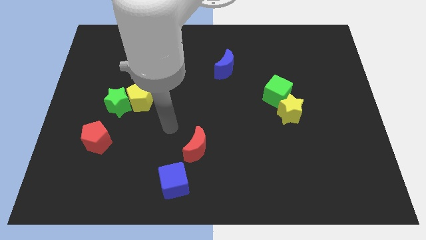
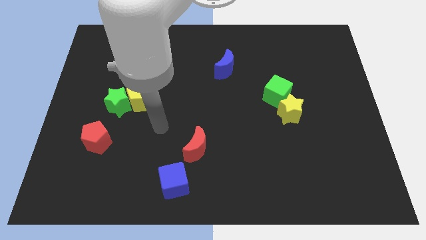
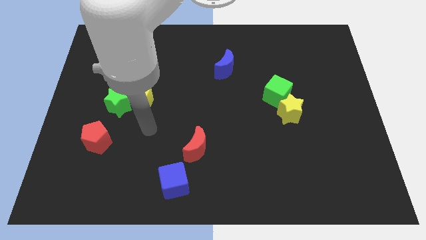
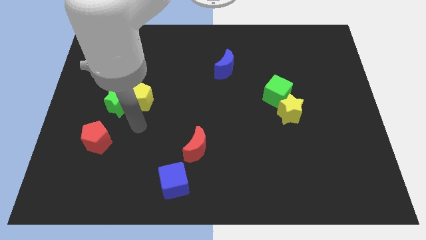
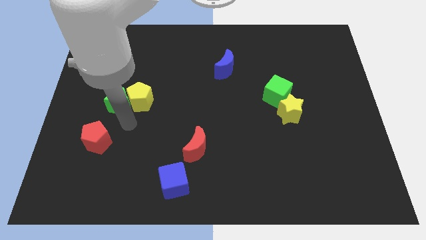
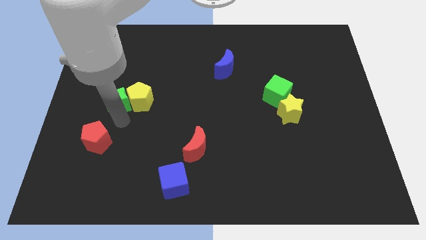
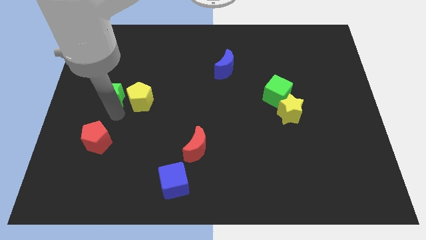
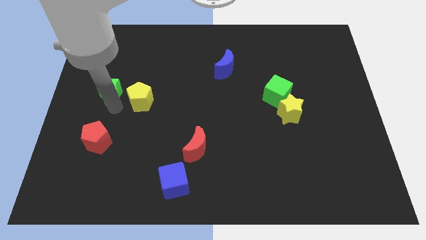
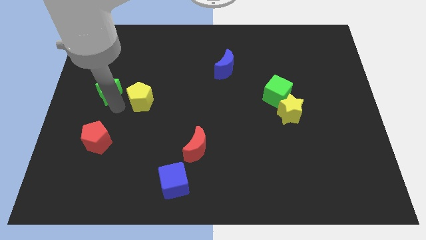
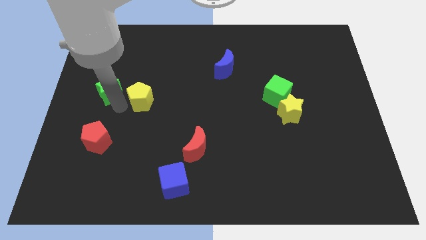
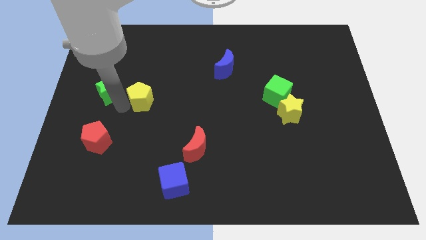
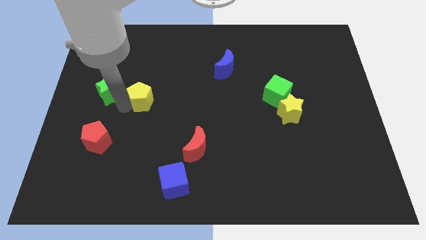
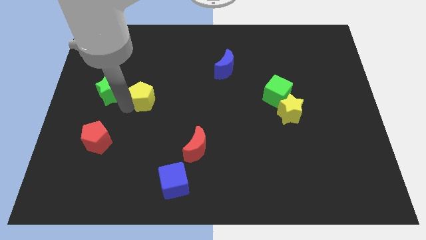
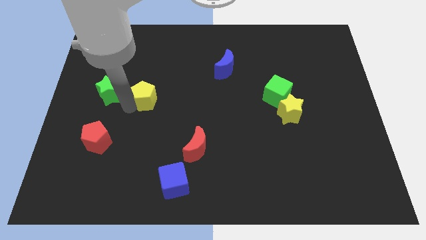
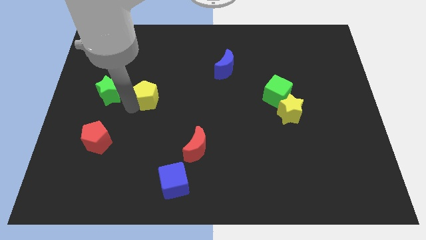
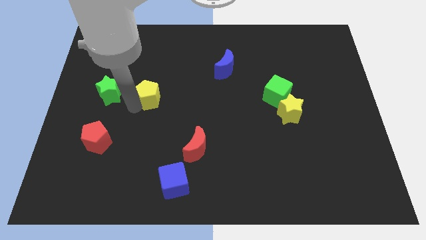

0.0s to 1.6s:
pull the yellow pentagon apart from the green star

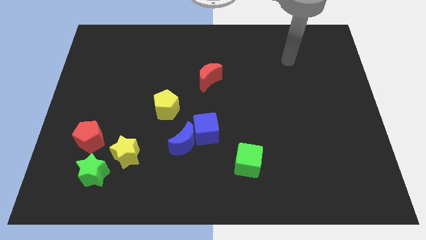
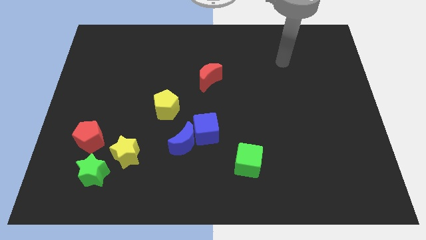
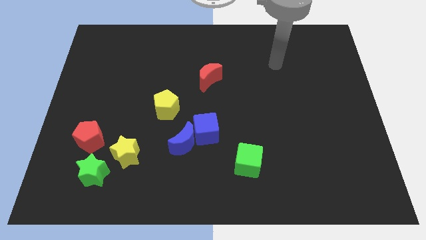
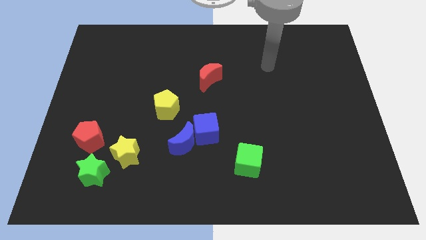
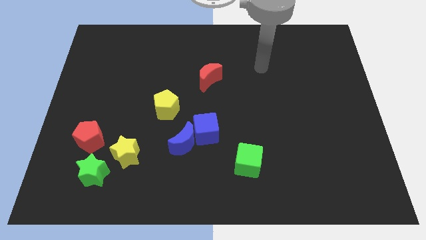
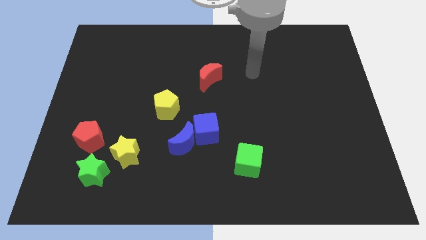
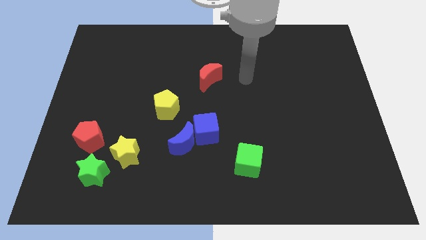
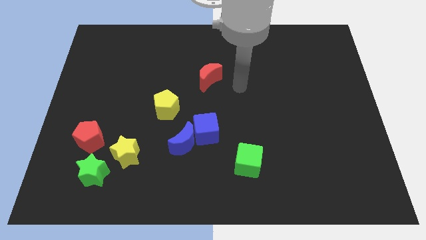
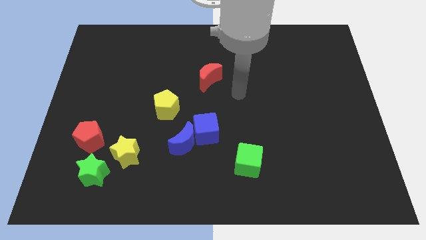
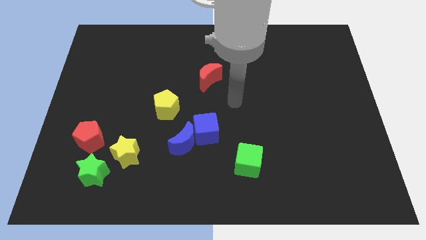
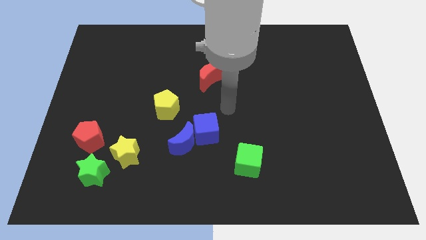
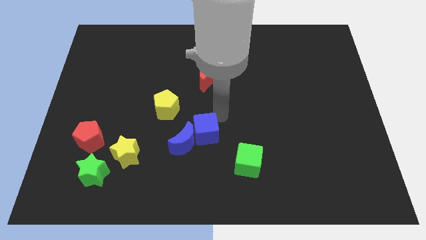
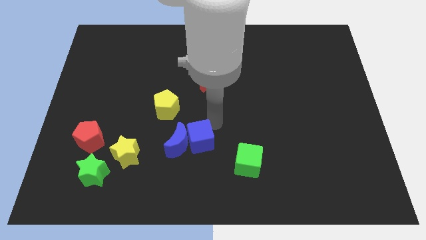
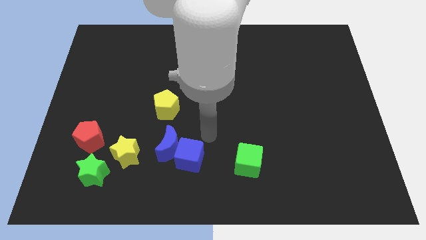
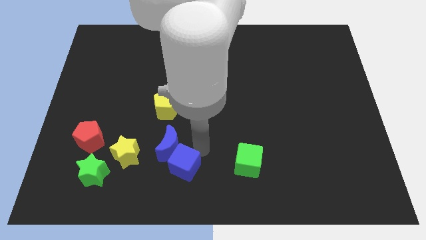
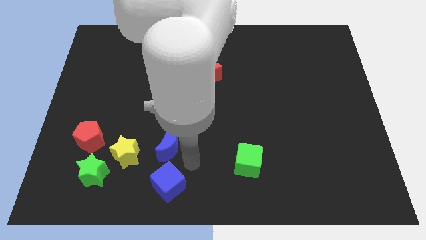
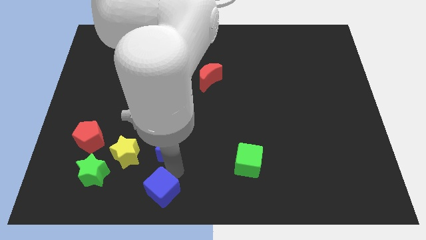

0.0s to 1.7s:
pull the blue moon apart from the blue cube

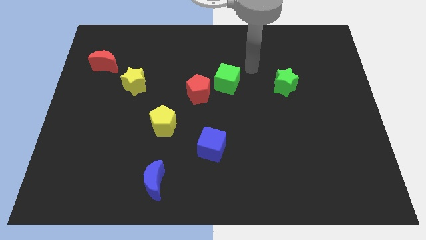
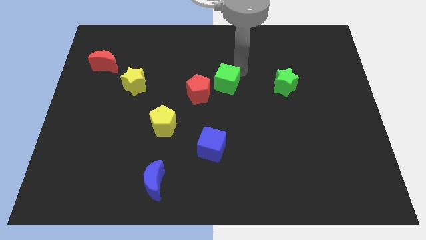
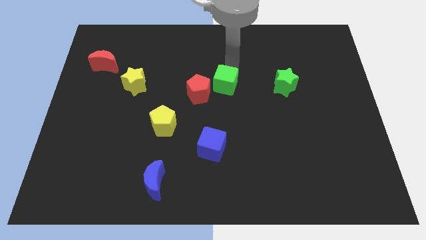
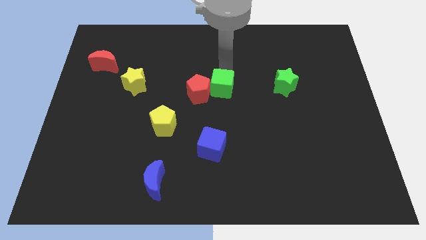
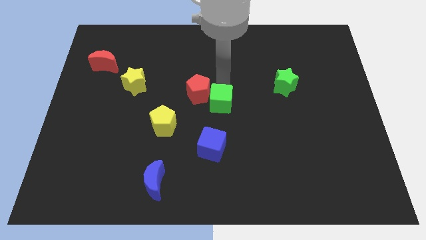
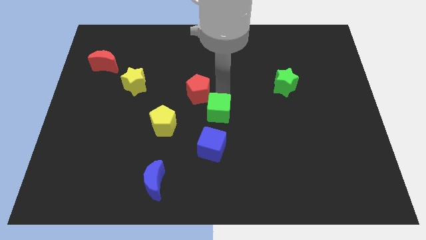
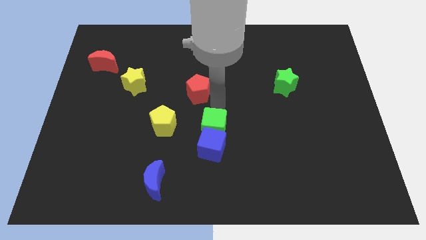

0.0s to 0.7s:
pull the red pentagon apart from the green cube

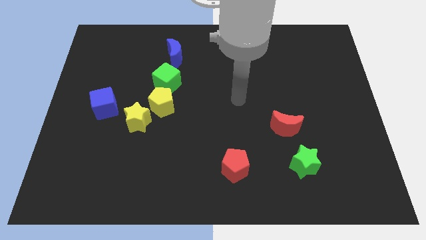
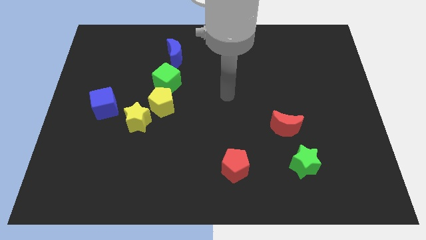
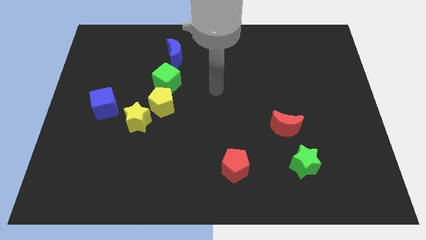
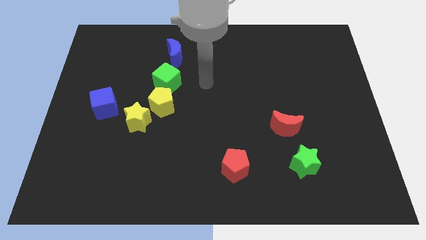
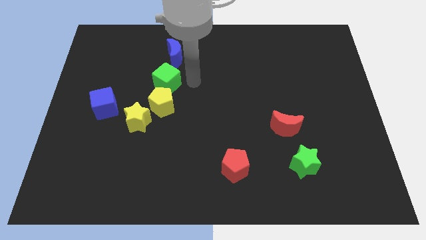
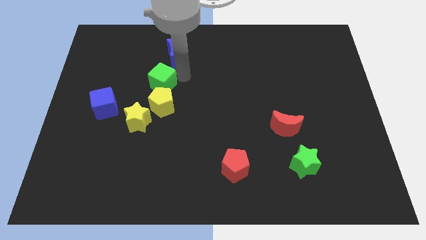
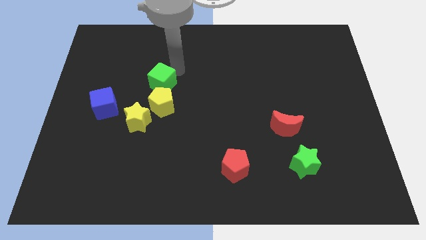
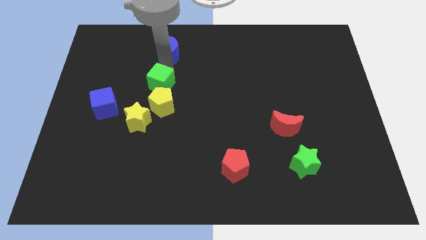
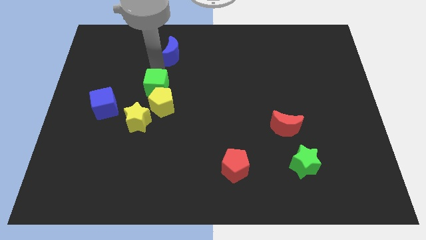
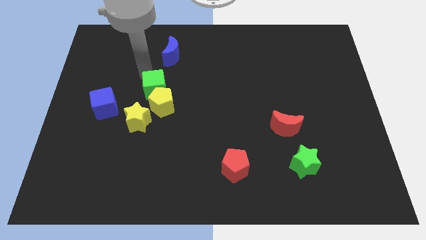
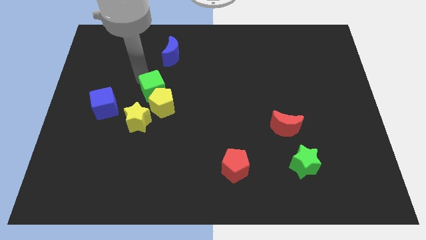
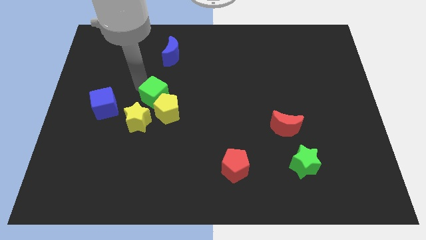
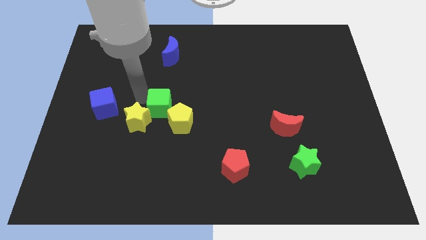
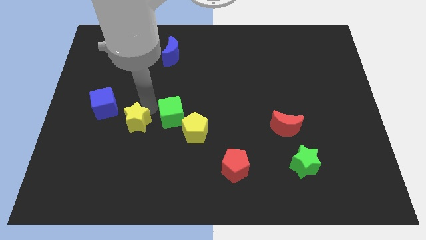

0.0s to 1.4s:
separate the yellow pentagon from the green cube and yellow star

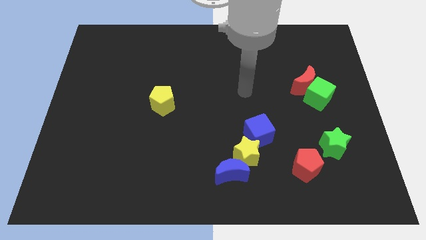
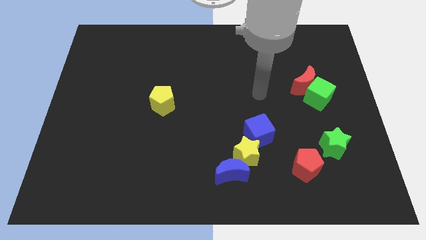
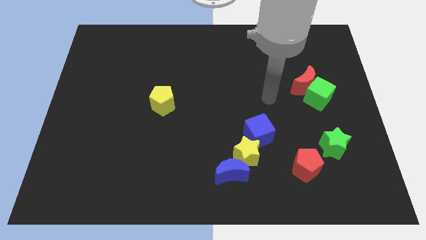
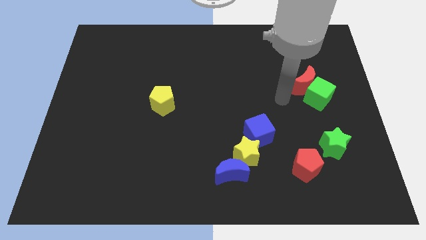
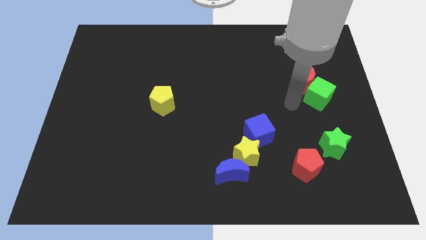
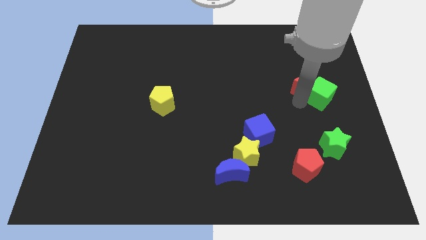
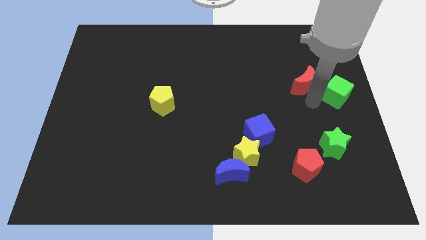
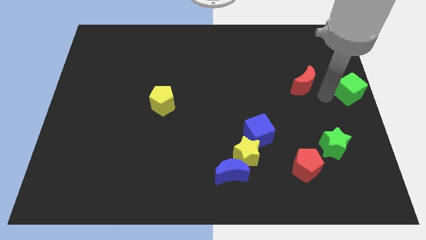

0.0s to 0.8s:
pull the red moon apart from the green cube

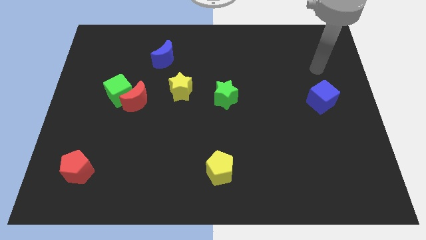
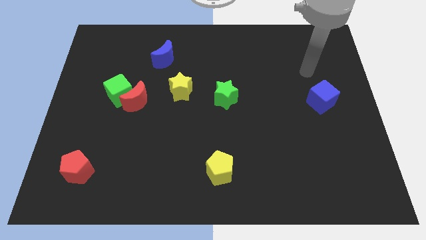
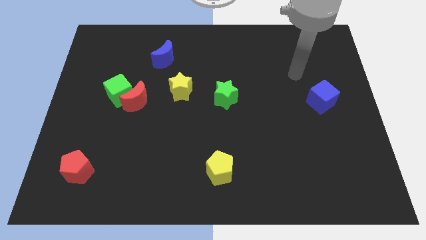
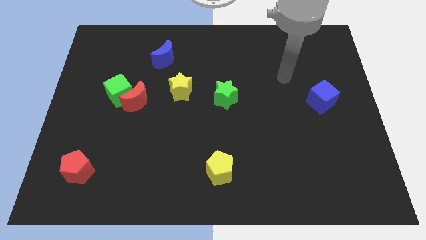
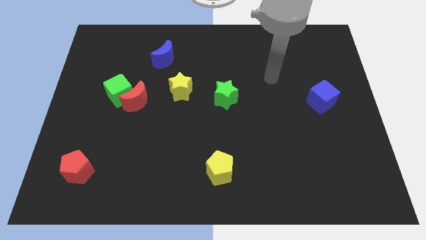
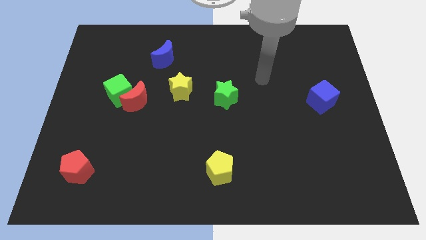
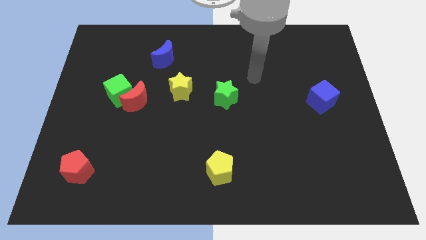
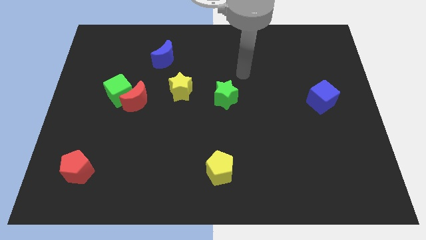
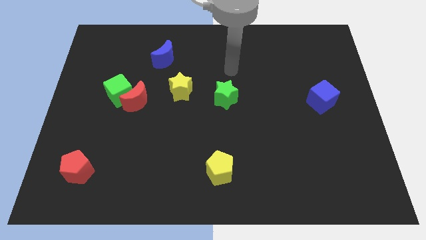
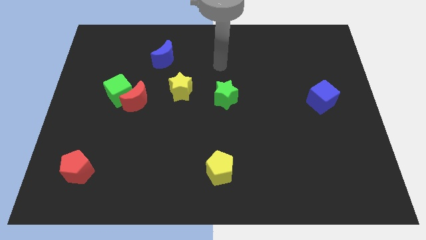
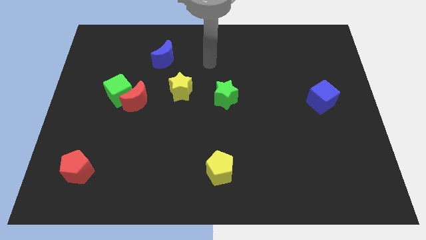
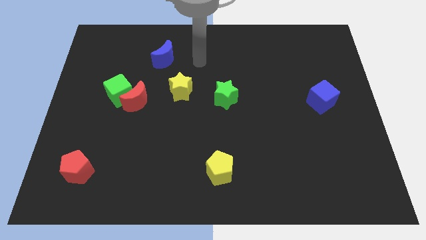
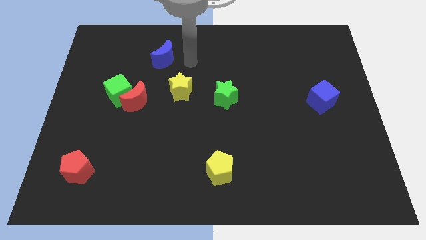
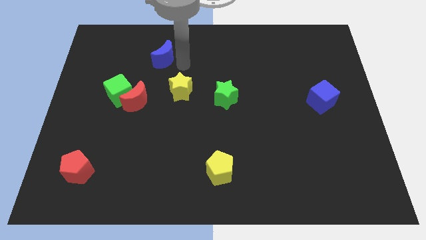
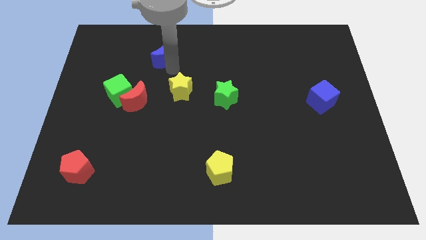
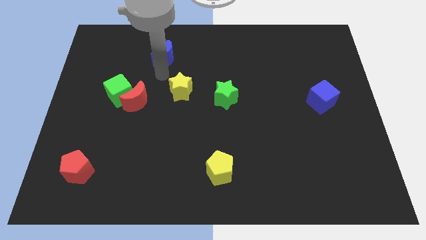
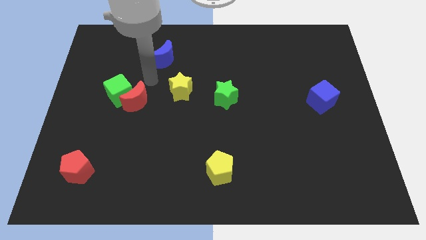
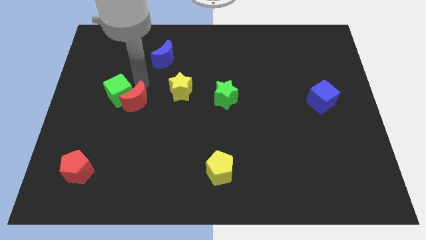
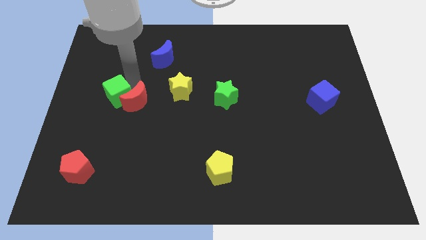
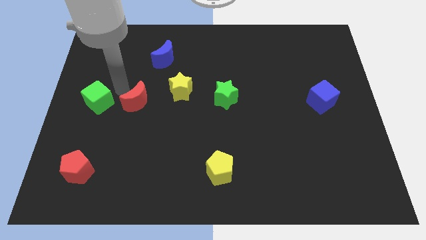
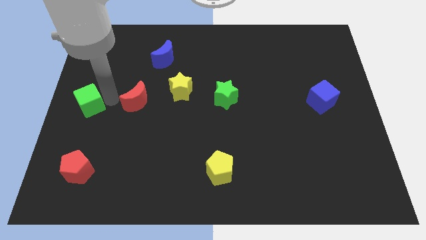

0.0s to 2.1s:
separate the red moon from the green cube

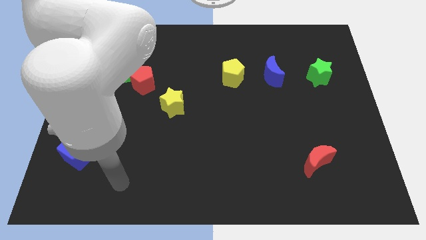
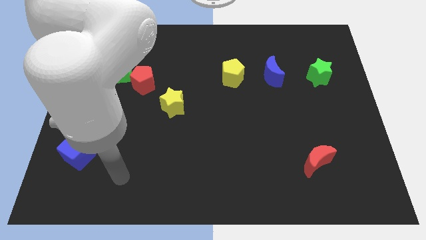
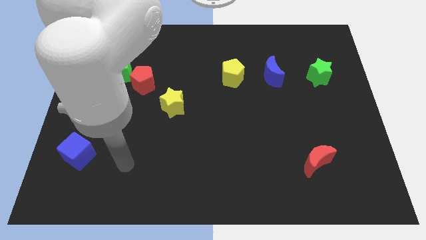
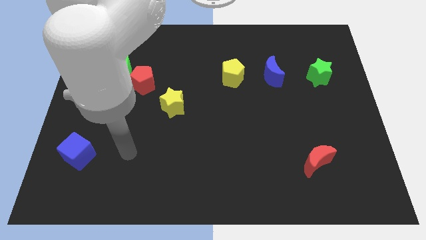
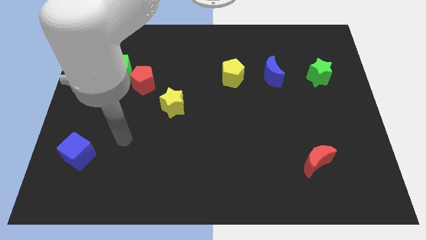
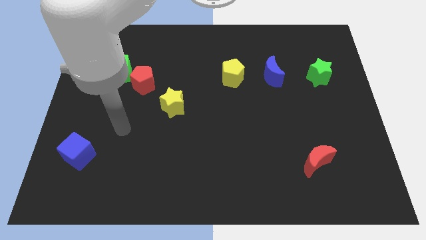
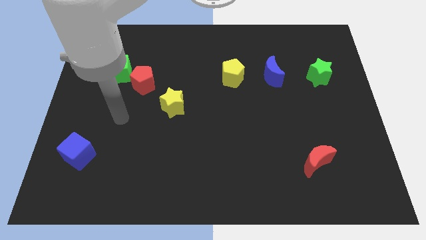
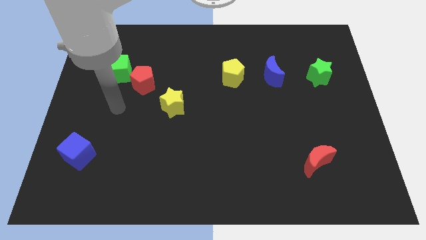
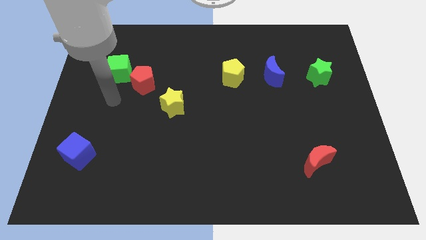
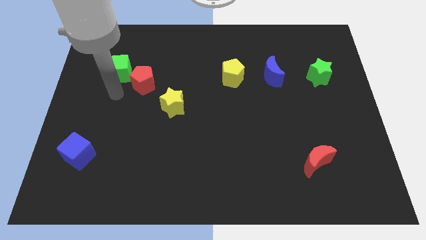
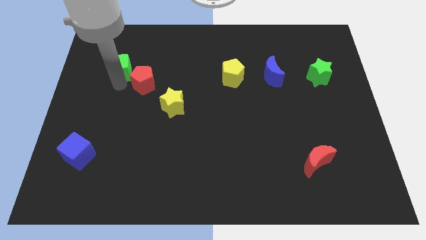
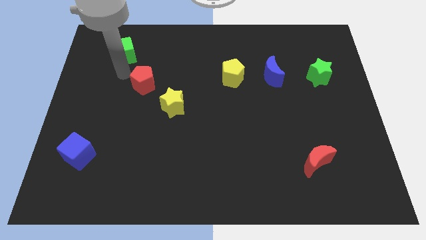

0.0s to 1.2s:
separate the red pentagon from the green cube
